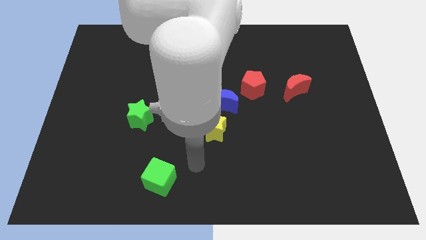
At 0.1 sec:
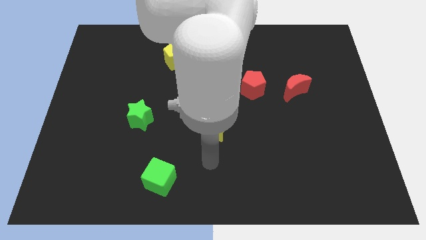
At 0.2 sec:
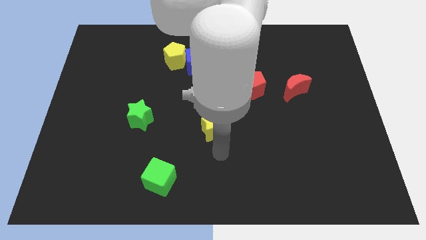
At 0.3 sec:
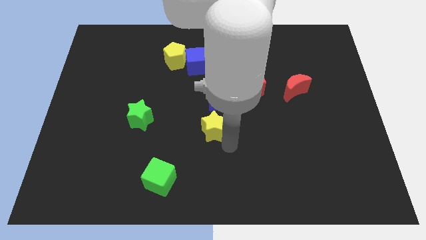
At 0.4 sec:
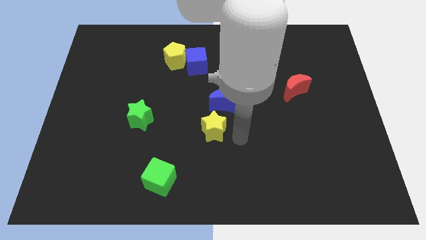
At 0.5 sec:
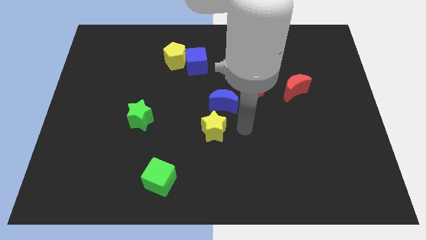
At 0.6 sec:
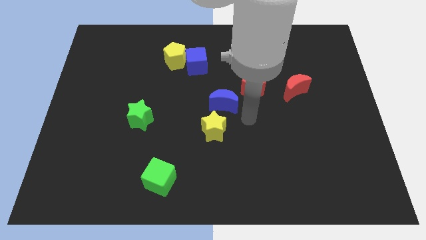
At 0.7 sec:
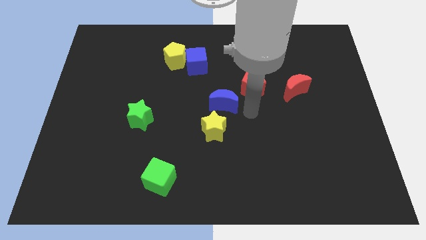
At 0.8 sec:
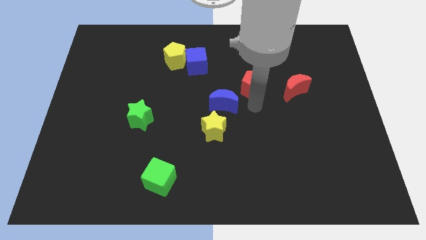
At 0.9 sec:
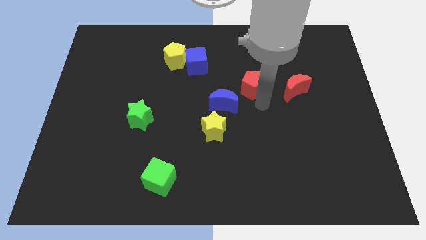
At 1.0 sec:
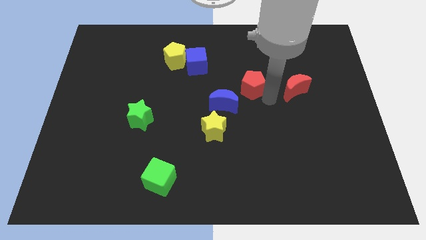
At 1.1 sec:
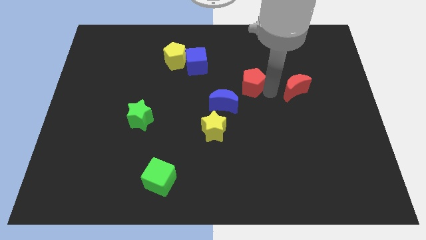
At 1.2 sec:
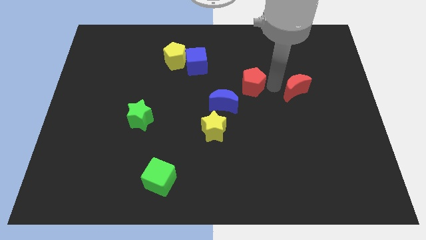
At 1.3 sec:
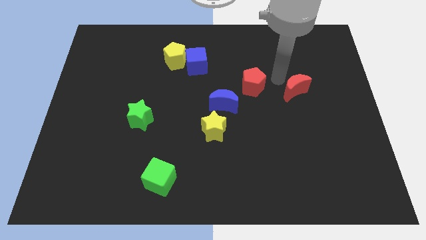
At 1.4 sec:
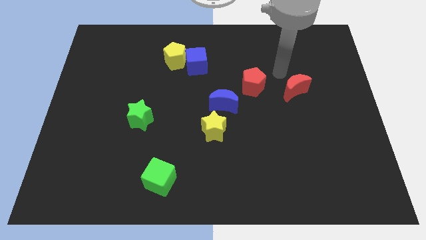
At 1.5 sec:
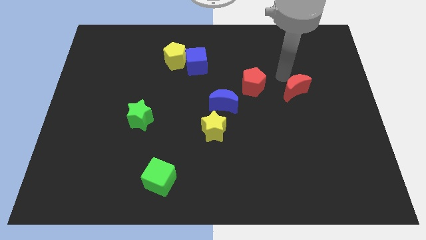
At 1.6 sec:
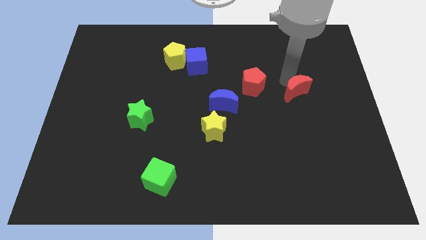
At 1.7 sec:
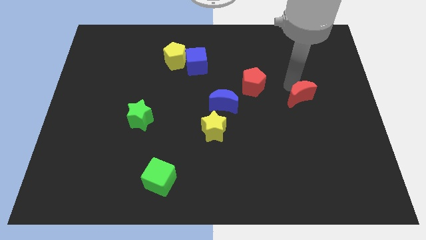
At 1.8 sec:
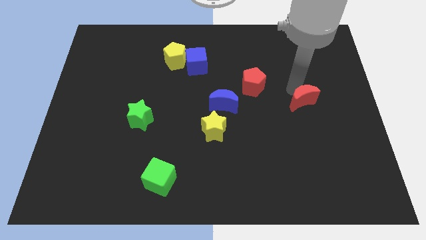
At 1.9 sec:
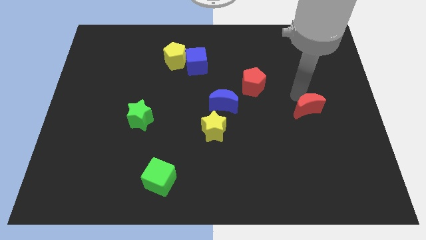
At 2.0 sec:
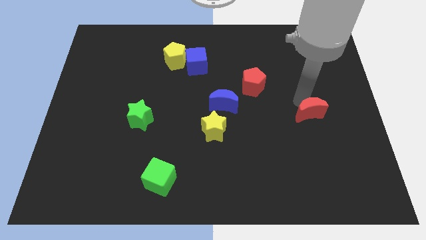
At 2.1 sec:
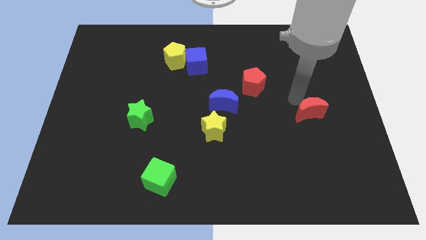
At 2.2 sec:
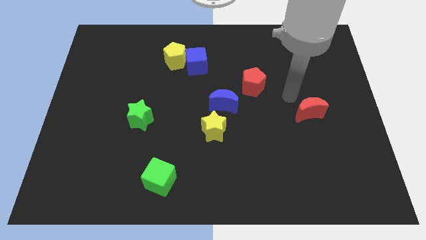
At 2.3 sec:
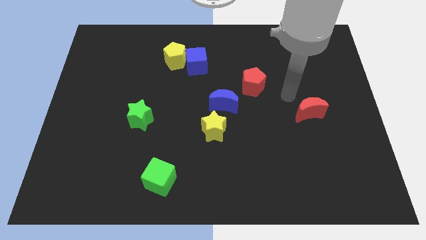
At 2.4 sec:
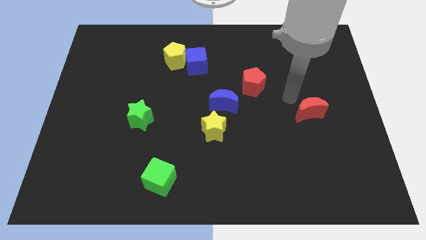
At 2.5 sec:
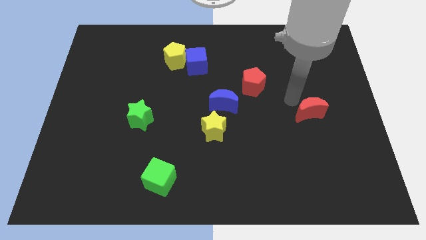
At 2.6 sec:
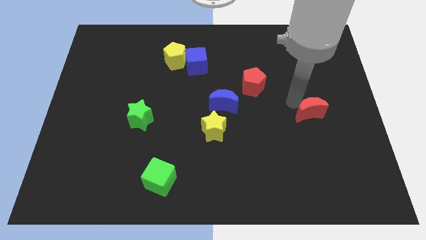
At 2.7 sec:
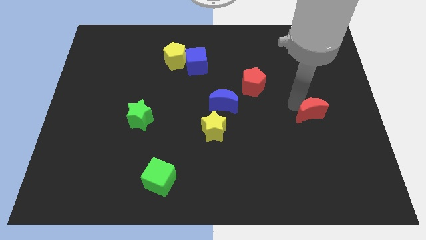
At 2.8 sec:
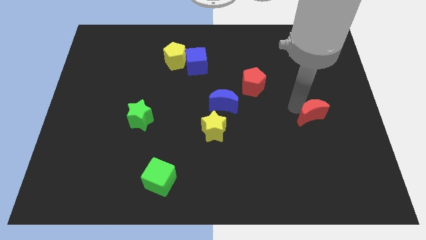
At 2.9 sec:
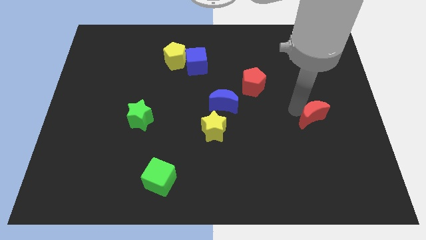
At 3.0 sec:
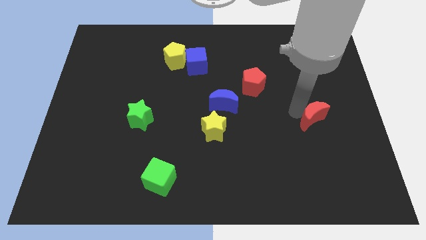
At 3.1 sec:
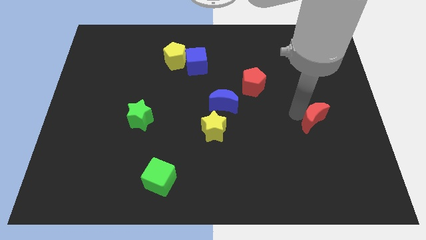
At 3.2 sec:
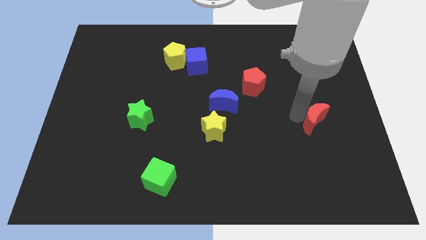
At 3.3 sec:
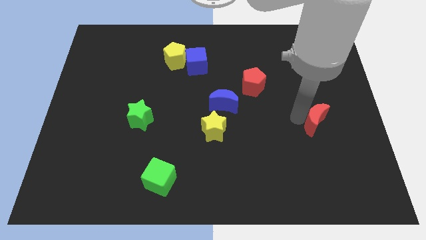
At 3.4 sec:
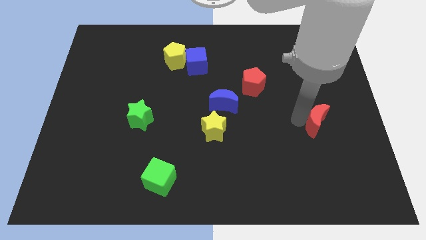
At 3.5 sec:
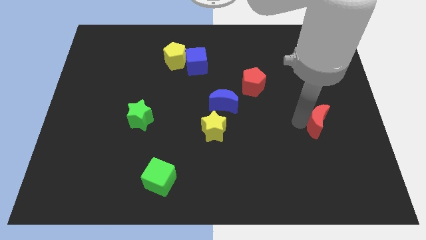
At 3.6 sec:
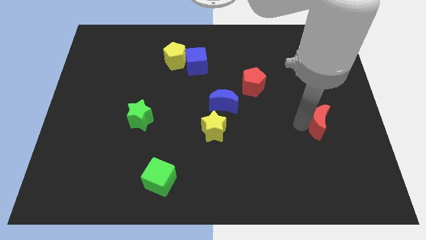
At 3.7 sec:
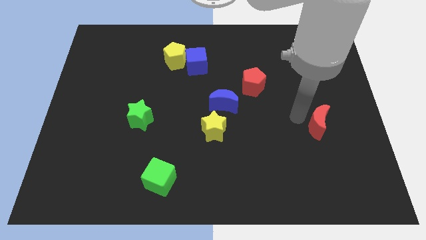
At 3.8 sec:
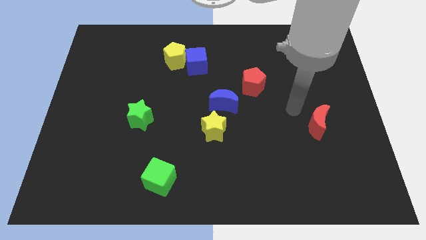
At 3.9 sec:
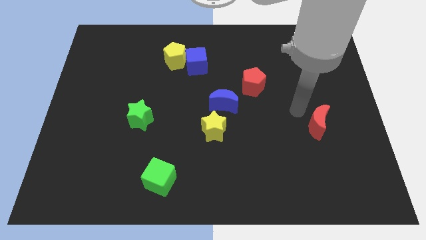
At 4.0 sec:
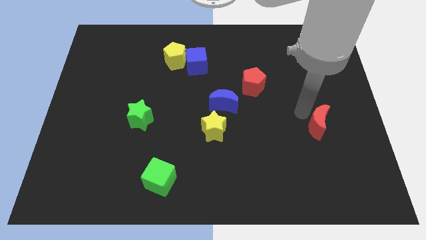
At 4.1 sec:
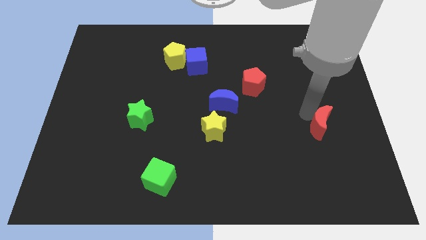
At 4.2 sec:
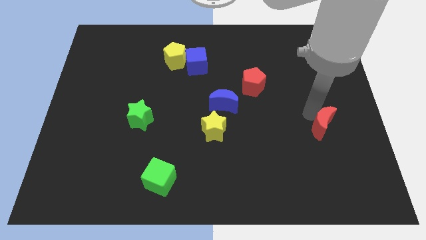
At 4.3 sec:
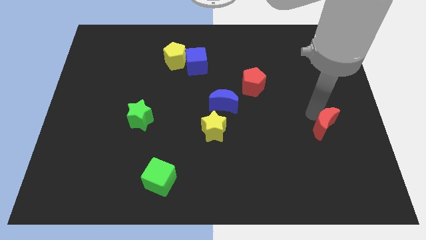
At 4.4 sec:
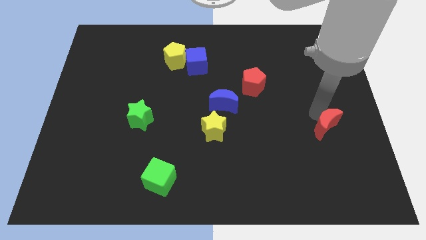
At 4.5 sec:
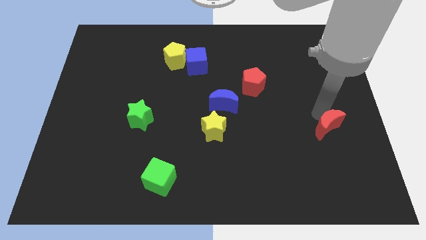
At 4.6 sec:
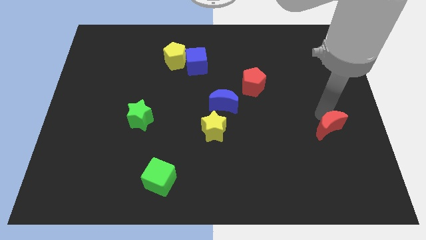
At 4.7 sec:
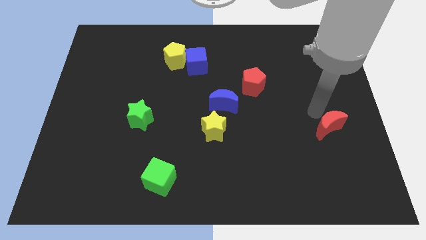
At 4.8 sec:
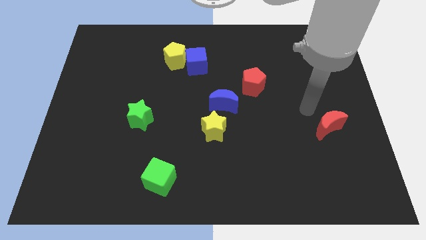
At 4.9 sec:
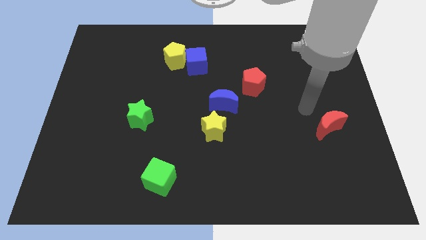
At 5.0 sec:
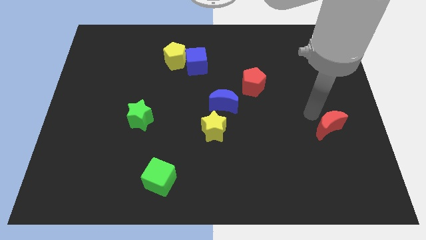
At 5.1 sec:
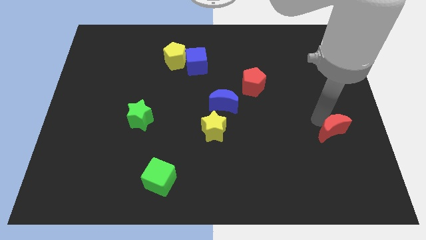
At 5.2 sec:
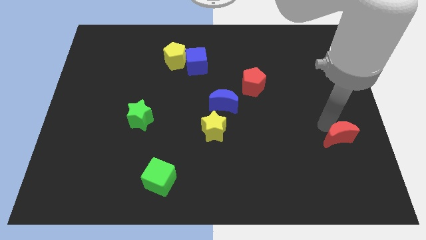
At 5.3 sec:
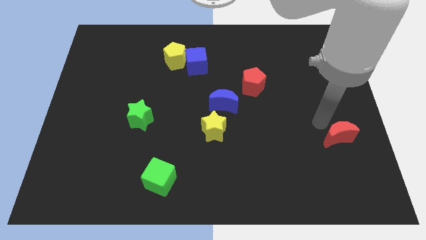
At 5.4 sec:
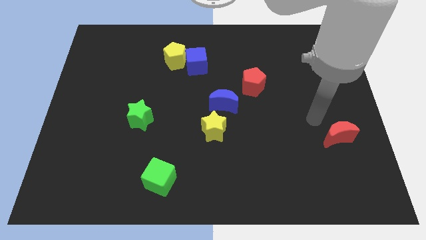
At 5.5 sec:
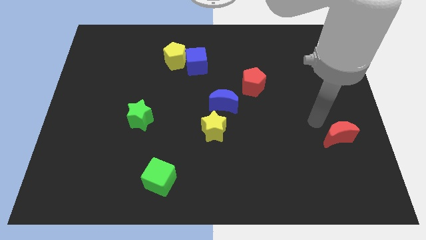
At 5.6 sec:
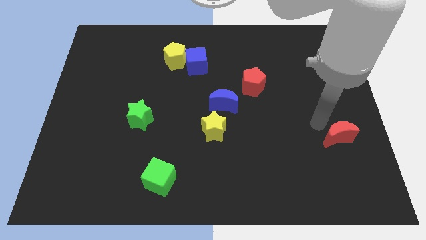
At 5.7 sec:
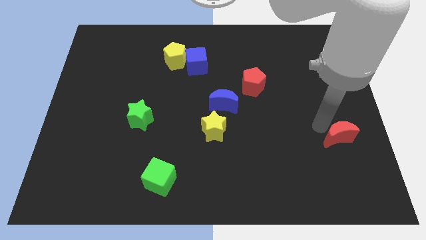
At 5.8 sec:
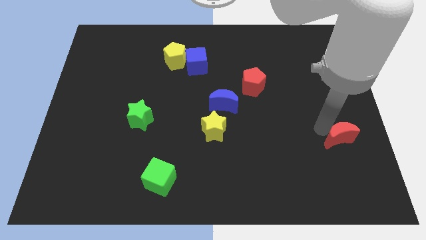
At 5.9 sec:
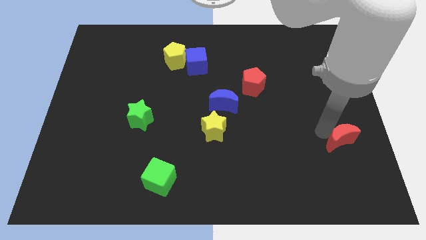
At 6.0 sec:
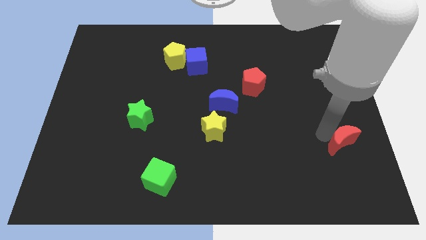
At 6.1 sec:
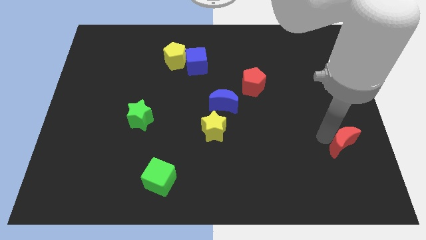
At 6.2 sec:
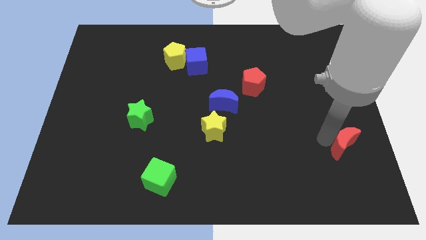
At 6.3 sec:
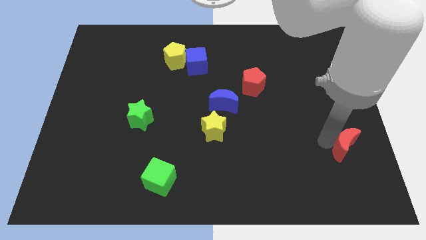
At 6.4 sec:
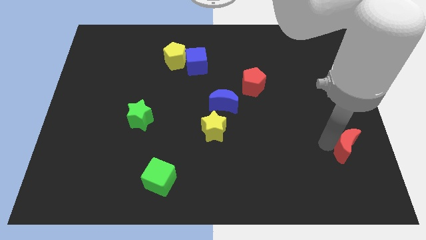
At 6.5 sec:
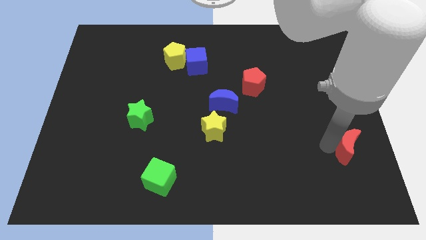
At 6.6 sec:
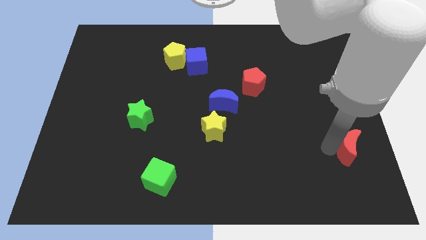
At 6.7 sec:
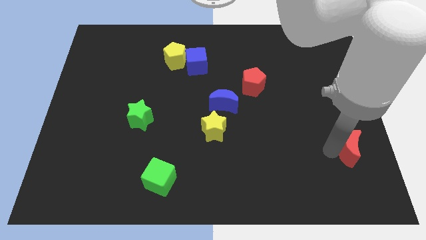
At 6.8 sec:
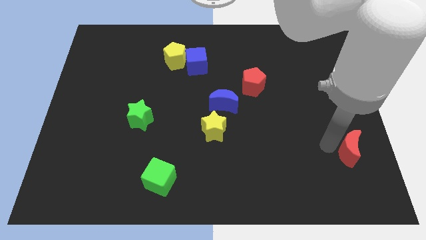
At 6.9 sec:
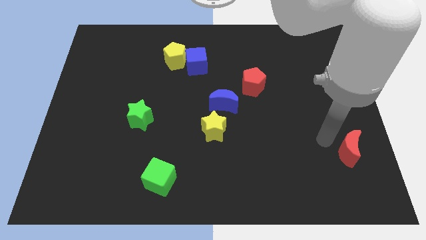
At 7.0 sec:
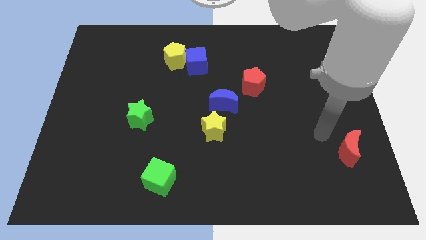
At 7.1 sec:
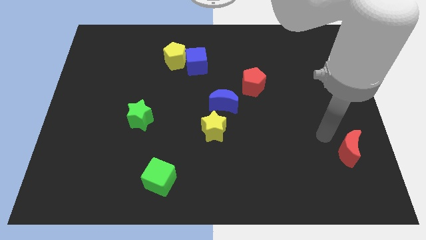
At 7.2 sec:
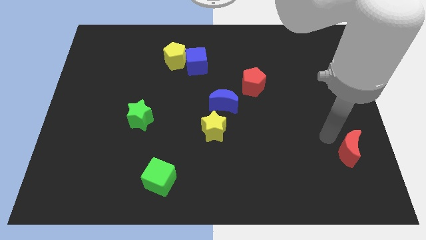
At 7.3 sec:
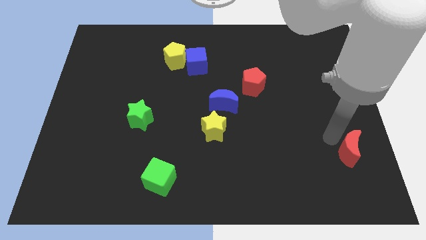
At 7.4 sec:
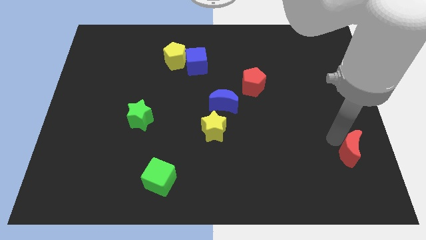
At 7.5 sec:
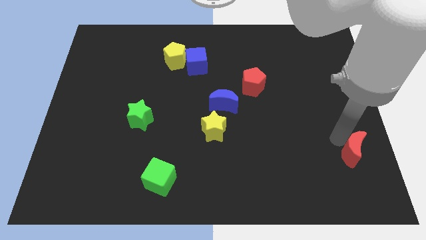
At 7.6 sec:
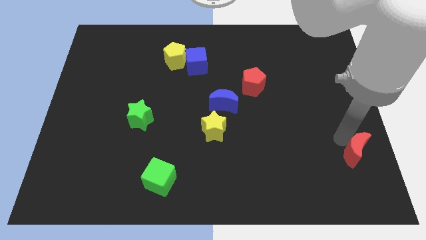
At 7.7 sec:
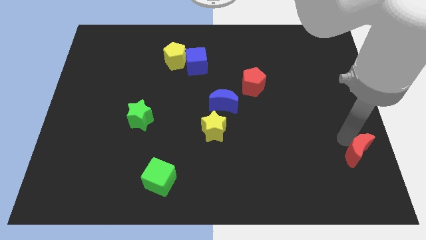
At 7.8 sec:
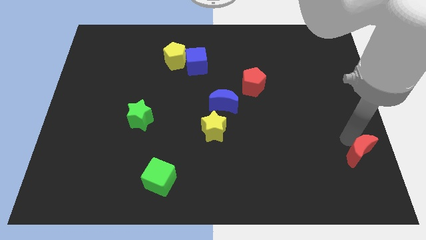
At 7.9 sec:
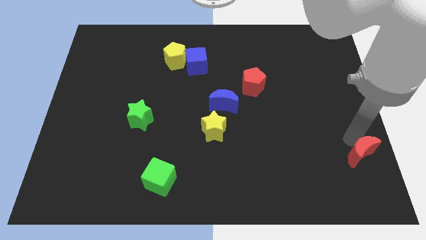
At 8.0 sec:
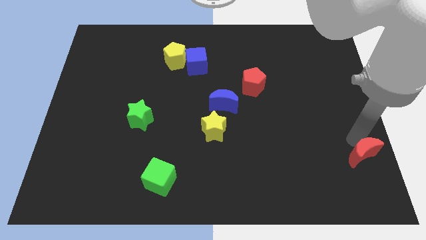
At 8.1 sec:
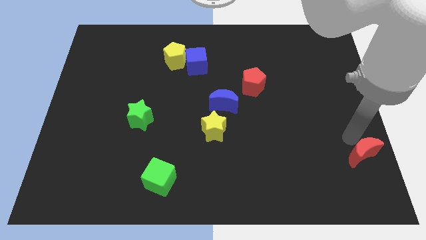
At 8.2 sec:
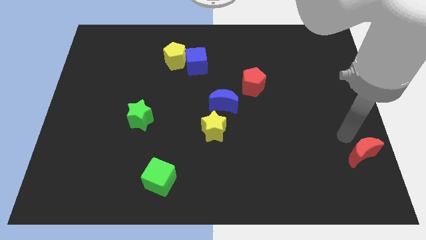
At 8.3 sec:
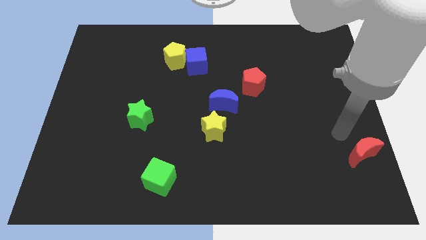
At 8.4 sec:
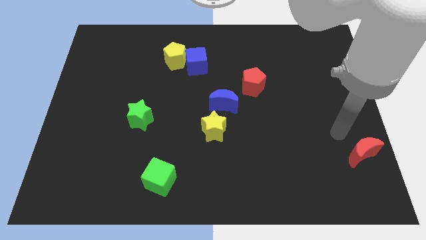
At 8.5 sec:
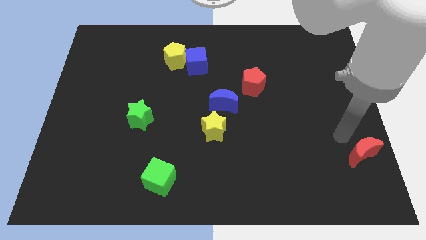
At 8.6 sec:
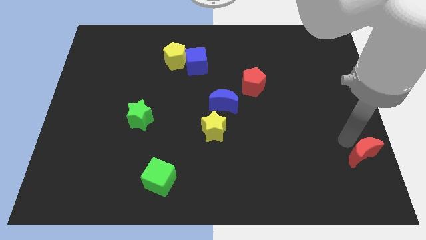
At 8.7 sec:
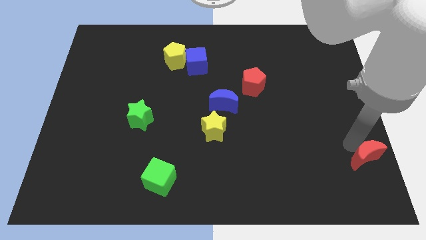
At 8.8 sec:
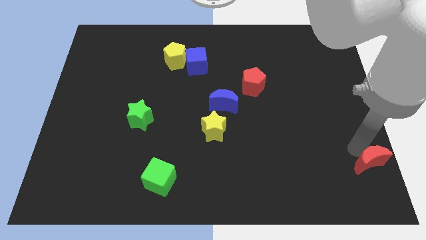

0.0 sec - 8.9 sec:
put the red moon to the bottom right
